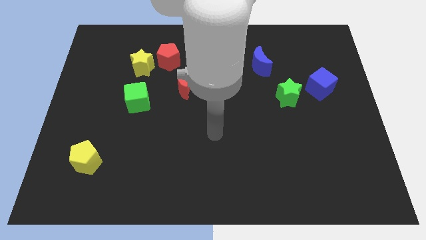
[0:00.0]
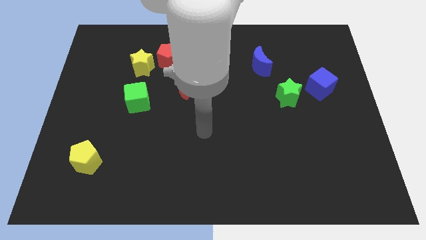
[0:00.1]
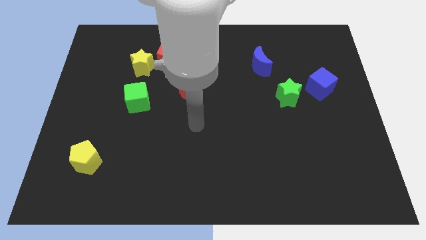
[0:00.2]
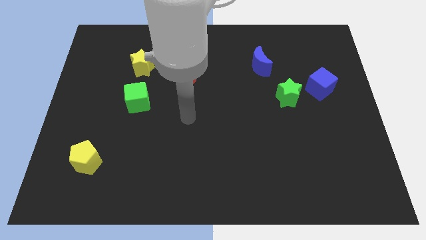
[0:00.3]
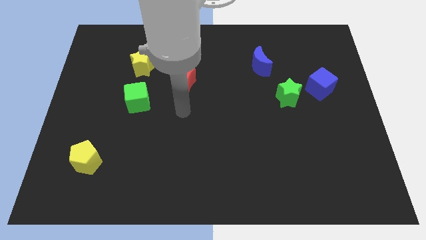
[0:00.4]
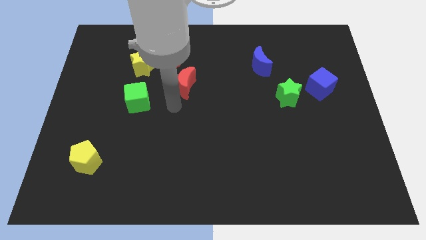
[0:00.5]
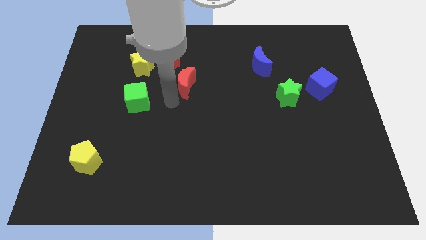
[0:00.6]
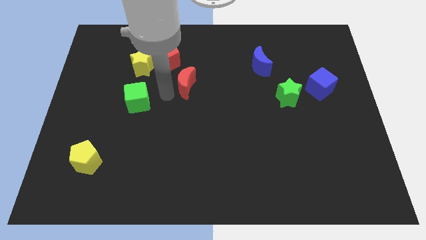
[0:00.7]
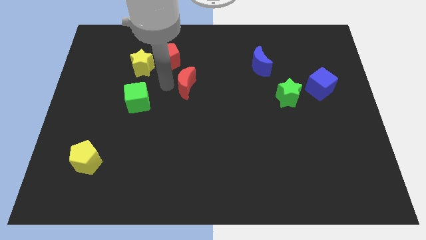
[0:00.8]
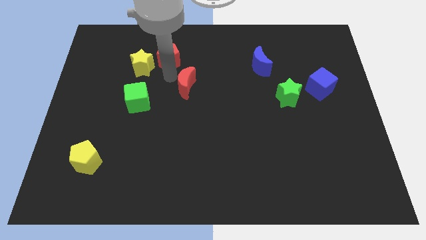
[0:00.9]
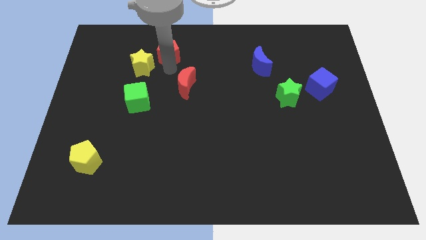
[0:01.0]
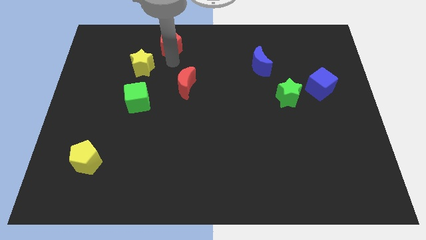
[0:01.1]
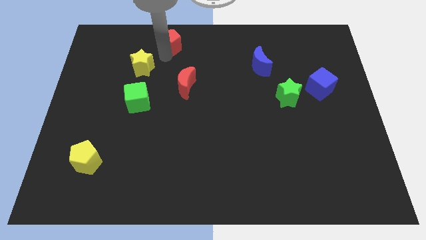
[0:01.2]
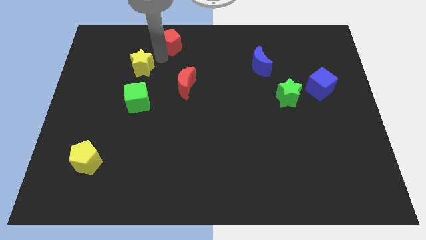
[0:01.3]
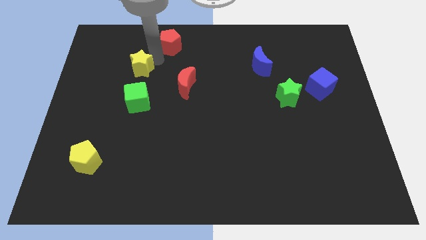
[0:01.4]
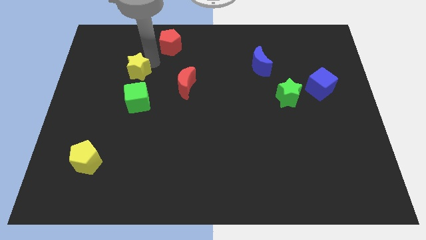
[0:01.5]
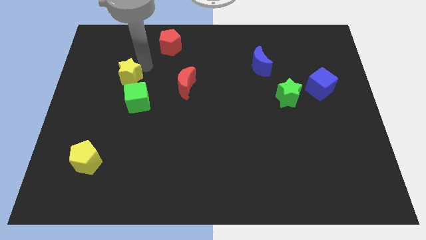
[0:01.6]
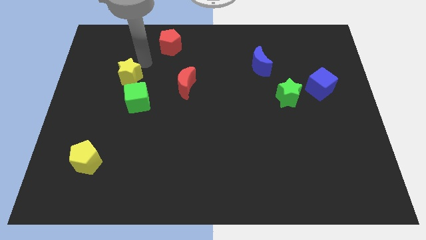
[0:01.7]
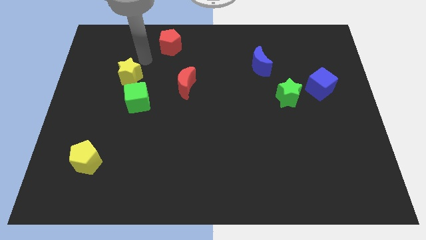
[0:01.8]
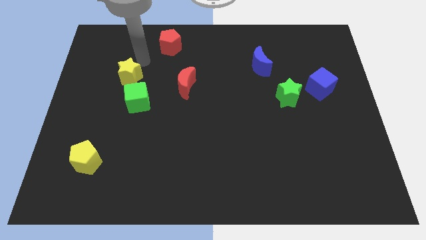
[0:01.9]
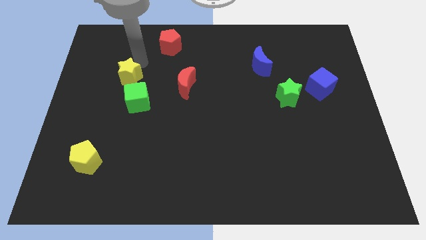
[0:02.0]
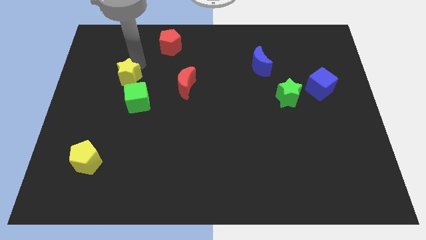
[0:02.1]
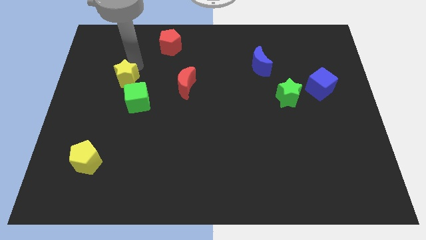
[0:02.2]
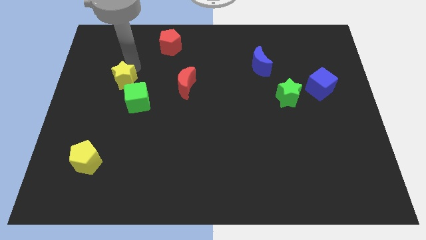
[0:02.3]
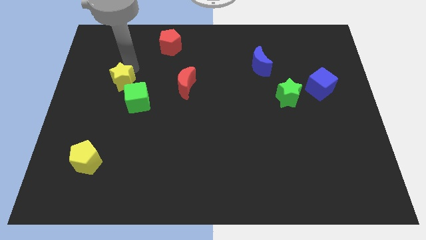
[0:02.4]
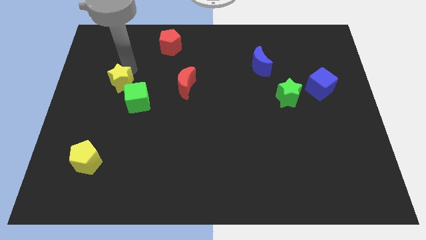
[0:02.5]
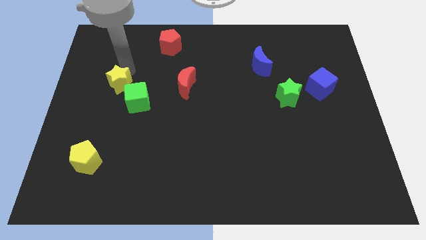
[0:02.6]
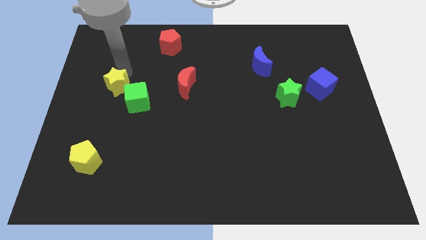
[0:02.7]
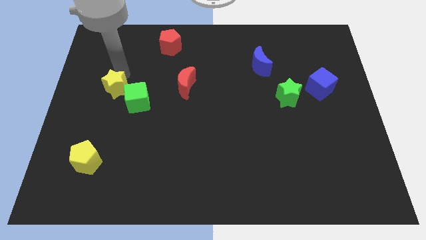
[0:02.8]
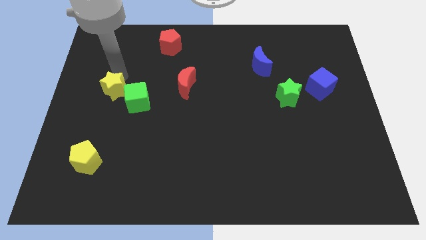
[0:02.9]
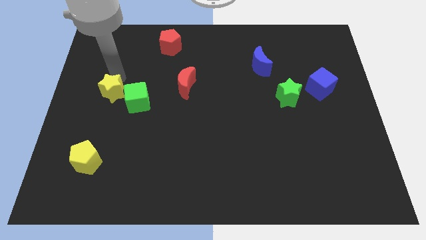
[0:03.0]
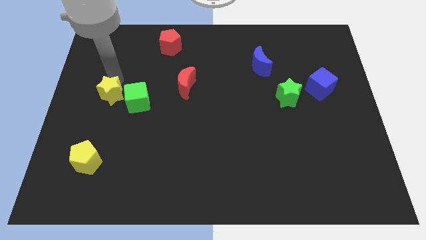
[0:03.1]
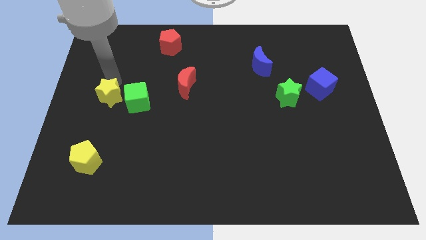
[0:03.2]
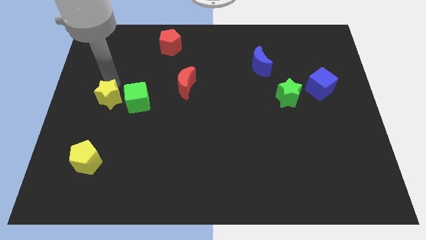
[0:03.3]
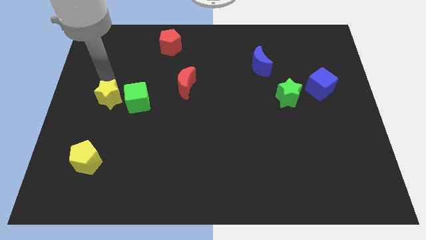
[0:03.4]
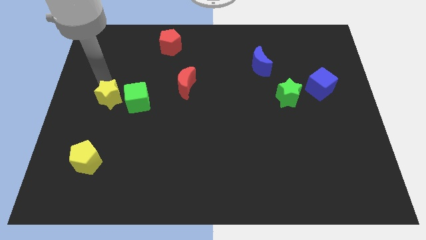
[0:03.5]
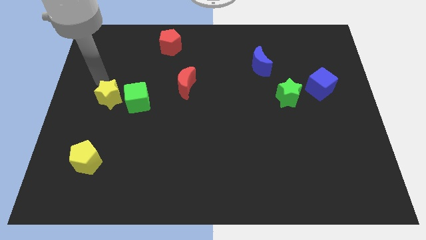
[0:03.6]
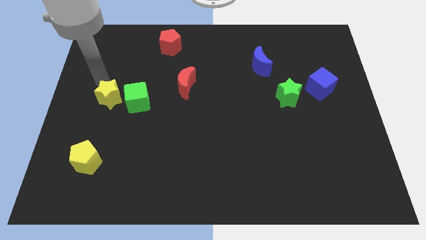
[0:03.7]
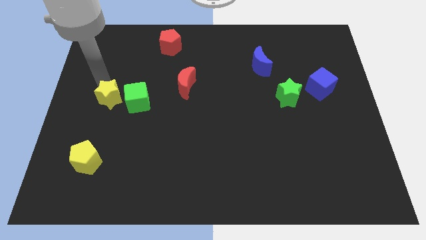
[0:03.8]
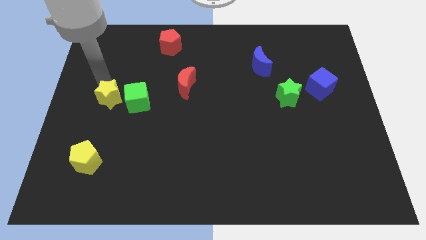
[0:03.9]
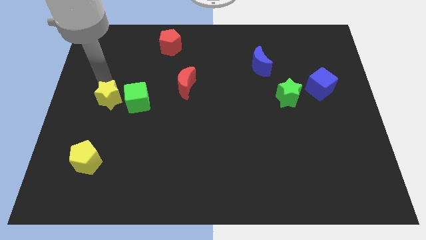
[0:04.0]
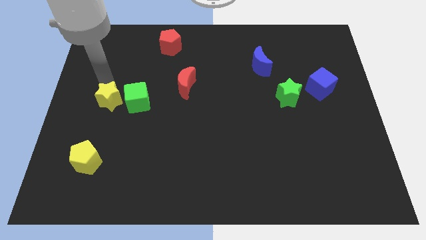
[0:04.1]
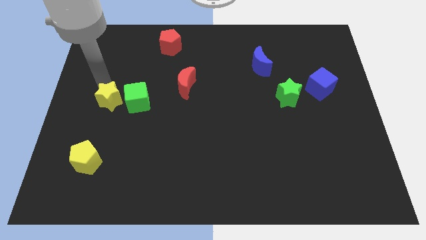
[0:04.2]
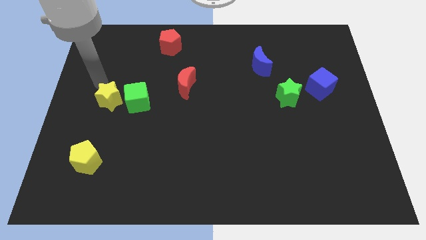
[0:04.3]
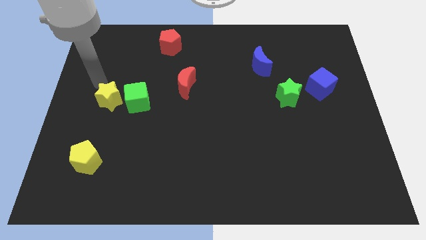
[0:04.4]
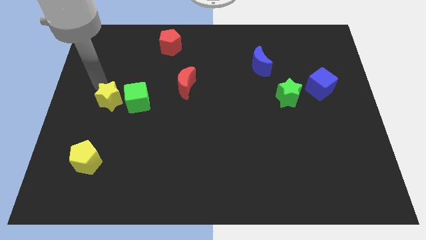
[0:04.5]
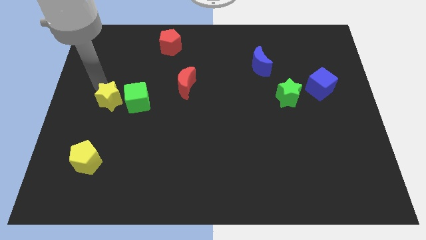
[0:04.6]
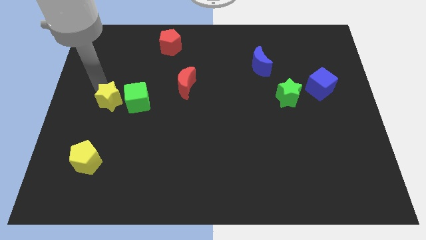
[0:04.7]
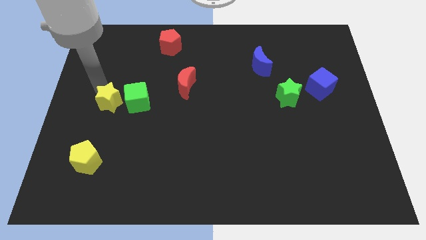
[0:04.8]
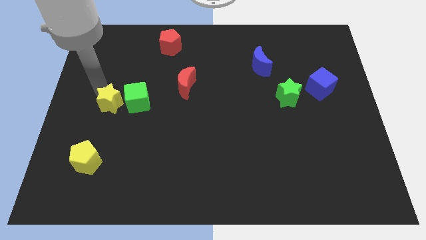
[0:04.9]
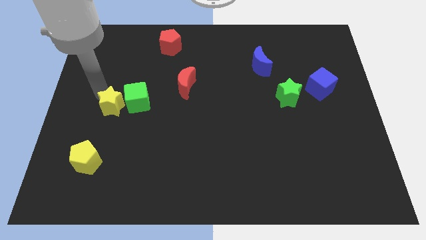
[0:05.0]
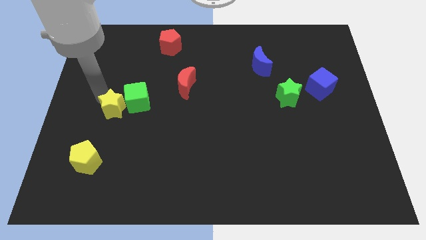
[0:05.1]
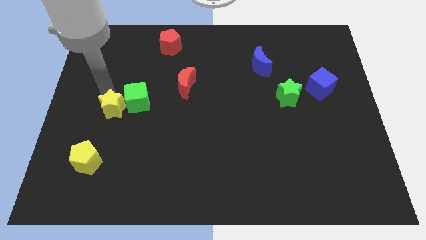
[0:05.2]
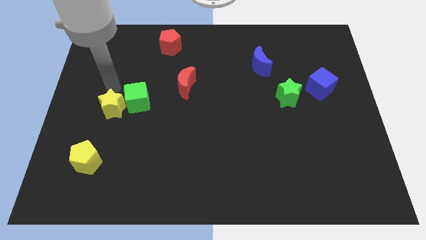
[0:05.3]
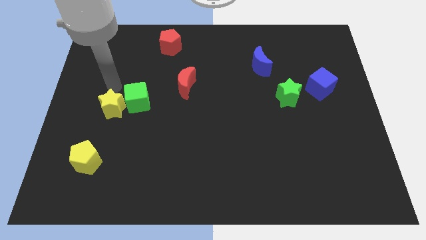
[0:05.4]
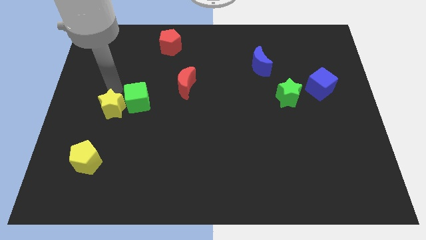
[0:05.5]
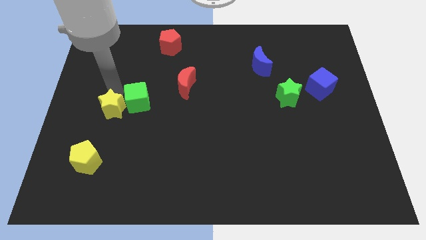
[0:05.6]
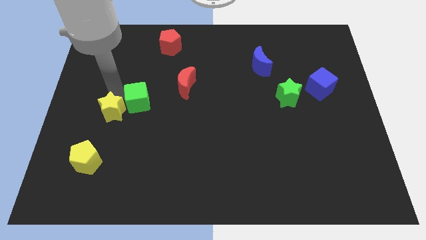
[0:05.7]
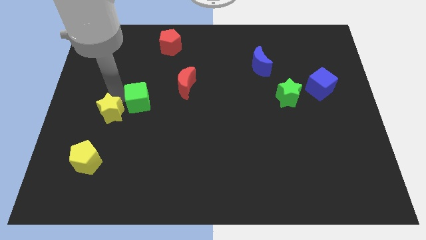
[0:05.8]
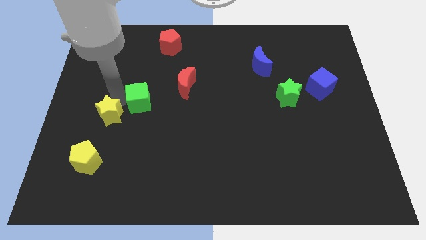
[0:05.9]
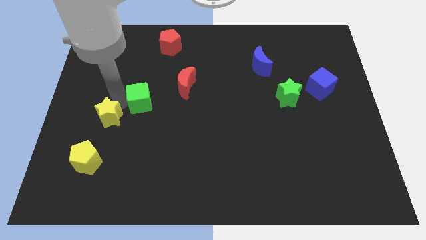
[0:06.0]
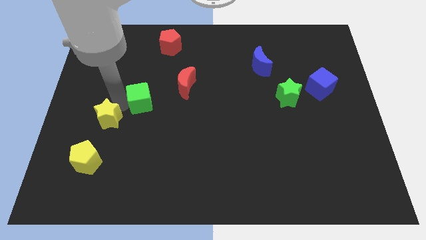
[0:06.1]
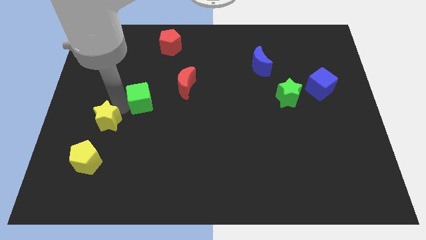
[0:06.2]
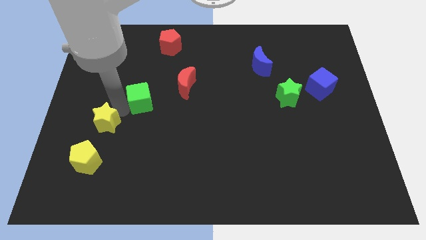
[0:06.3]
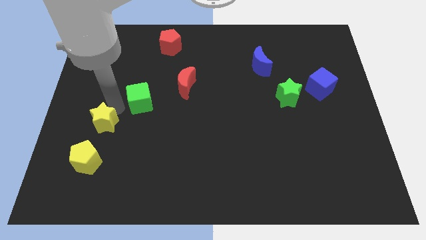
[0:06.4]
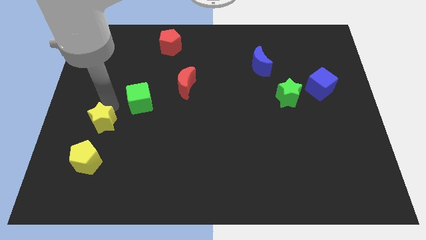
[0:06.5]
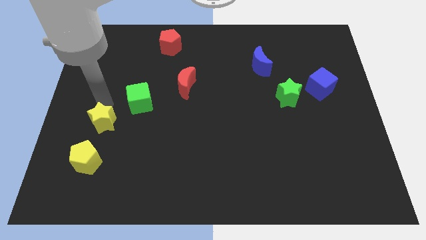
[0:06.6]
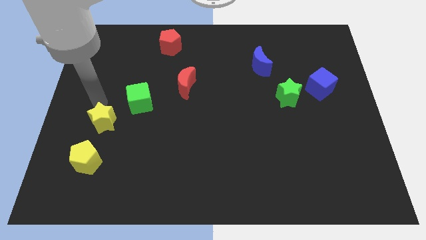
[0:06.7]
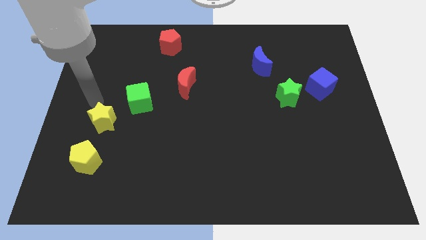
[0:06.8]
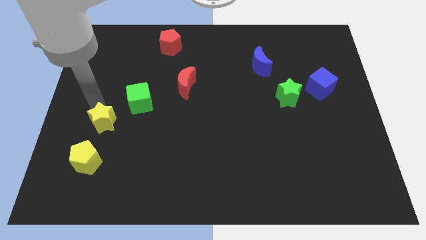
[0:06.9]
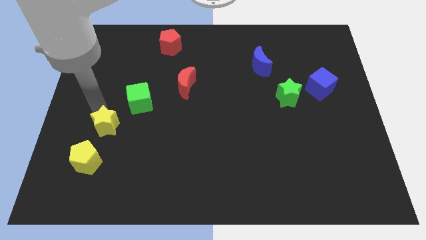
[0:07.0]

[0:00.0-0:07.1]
move the yellow star to the top right of the yellow pentagon

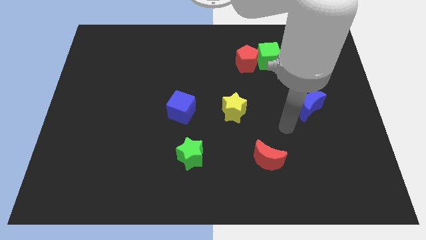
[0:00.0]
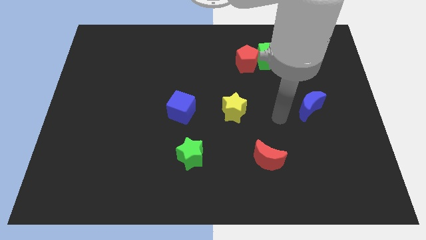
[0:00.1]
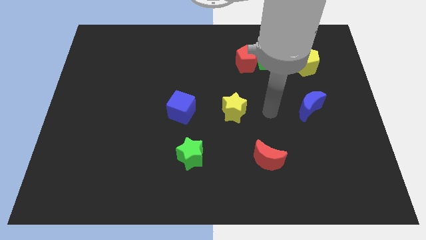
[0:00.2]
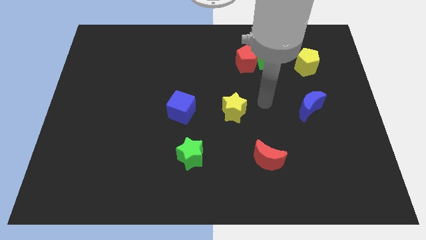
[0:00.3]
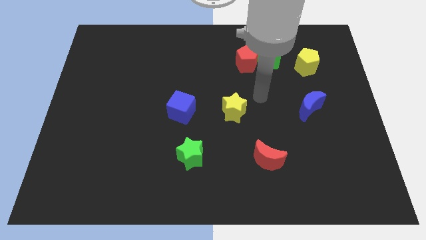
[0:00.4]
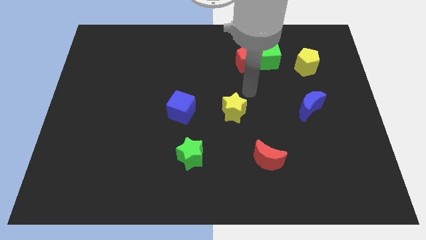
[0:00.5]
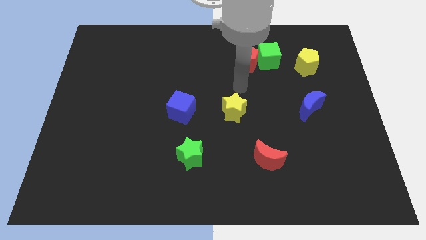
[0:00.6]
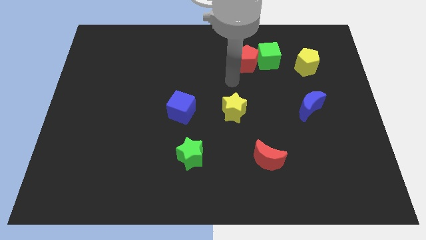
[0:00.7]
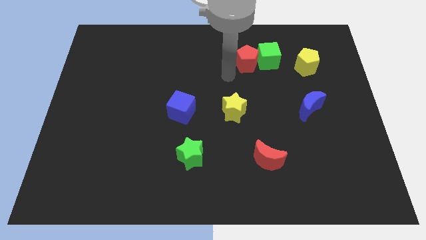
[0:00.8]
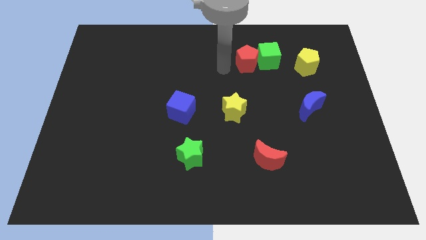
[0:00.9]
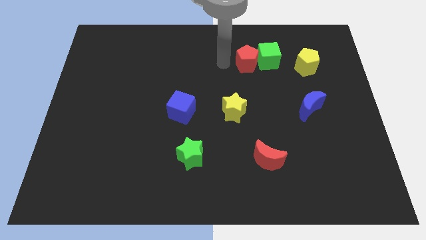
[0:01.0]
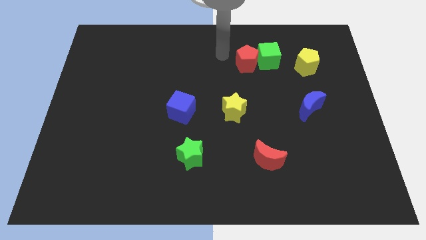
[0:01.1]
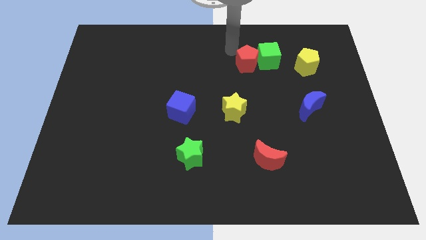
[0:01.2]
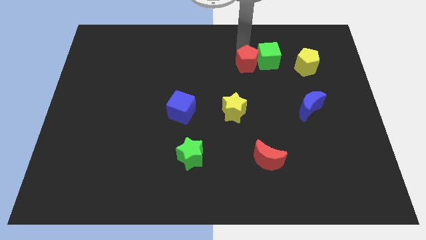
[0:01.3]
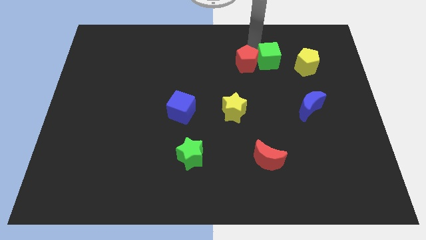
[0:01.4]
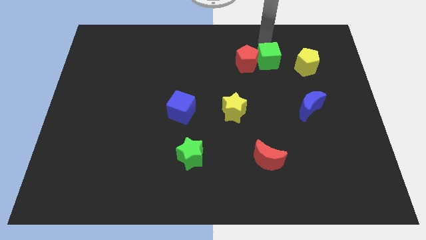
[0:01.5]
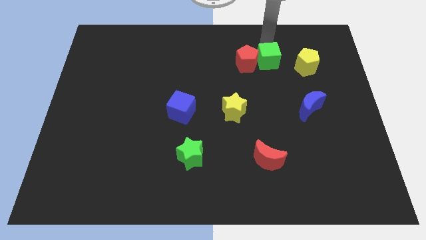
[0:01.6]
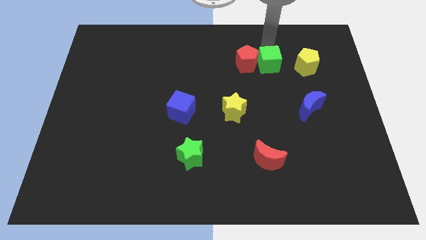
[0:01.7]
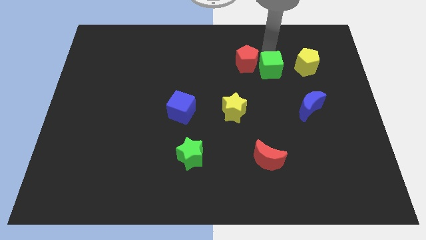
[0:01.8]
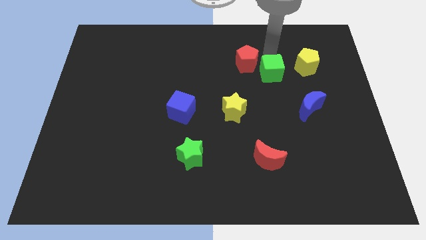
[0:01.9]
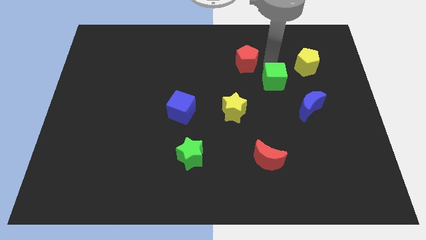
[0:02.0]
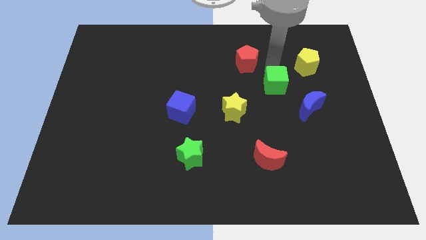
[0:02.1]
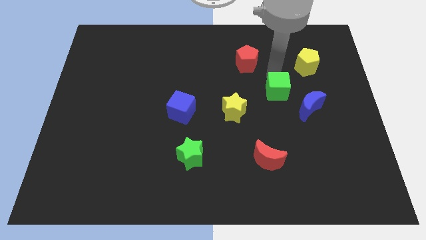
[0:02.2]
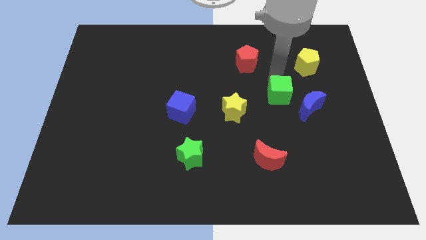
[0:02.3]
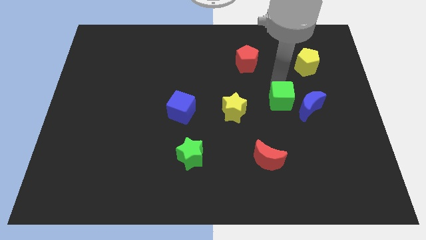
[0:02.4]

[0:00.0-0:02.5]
slide the green cube just right of the yellow star
